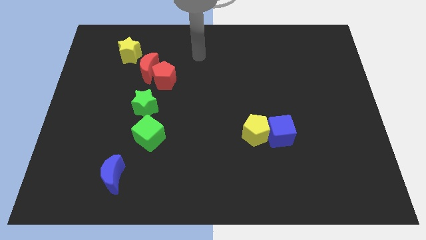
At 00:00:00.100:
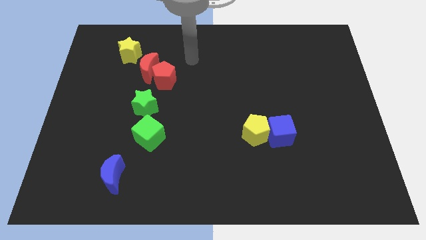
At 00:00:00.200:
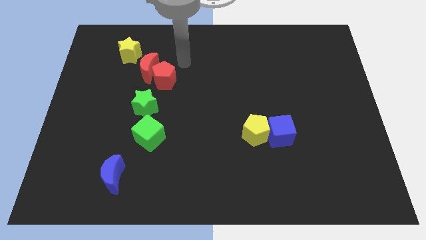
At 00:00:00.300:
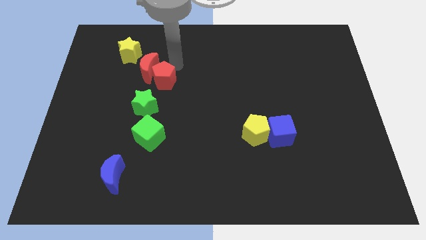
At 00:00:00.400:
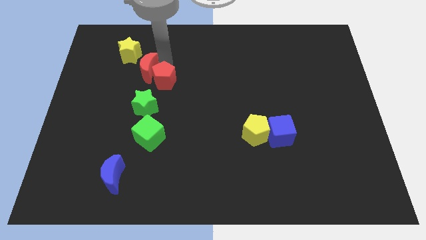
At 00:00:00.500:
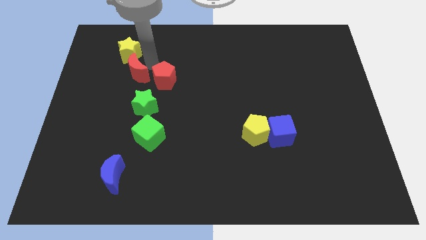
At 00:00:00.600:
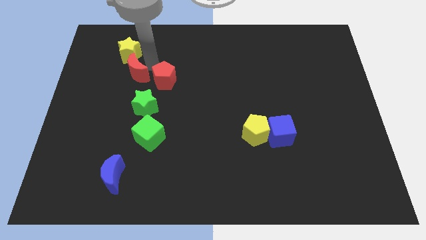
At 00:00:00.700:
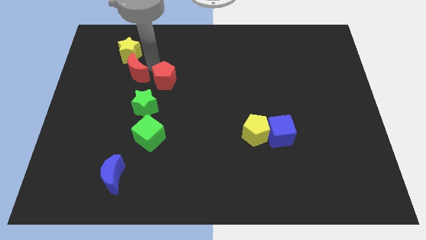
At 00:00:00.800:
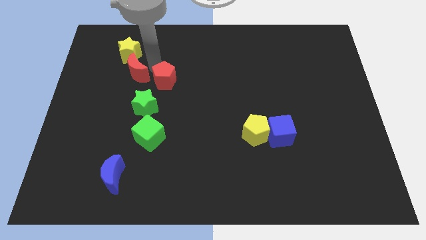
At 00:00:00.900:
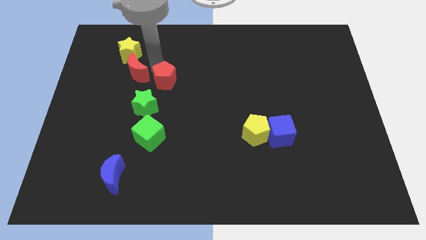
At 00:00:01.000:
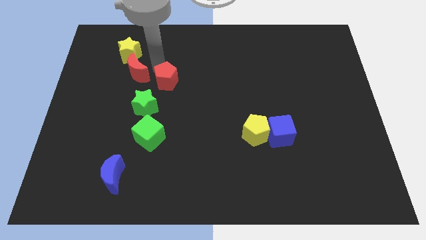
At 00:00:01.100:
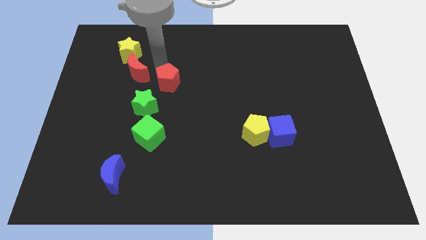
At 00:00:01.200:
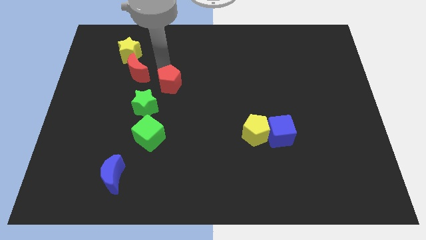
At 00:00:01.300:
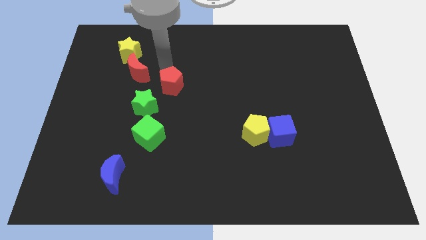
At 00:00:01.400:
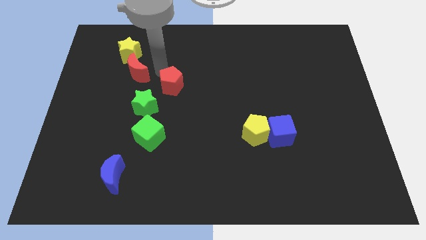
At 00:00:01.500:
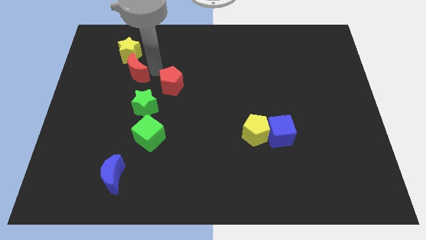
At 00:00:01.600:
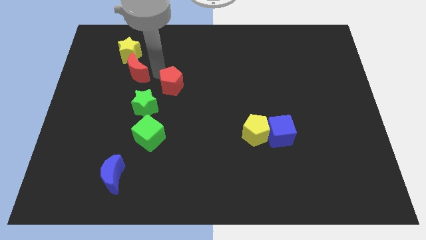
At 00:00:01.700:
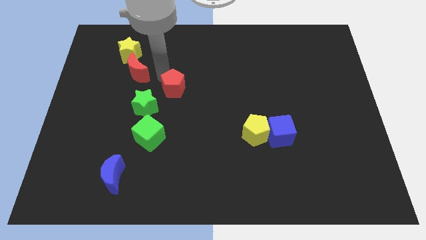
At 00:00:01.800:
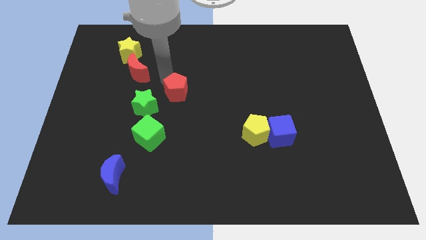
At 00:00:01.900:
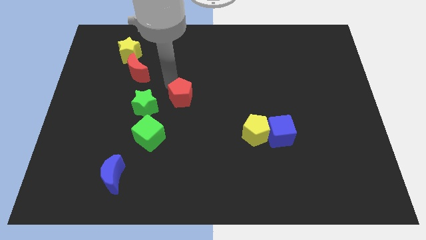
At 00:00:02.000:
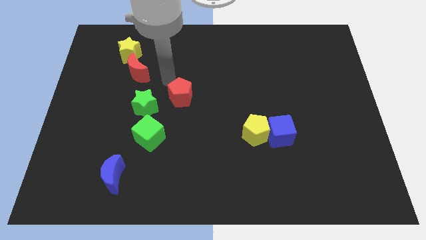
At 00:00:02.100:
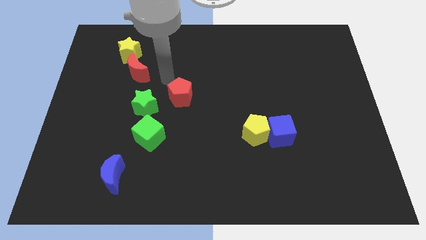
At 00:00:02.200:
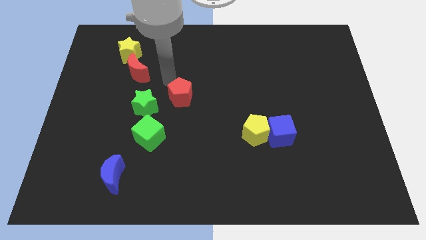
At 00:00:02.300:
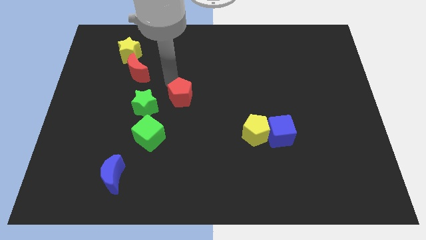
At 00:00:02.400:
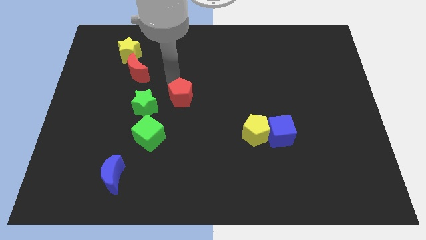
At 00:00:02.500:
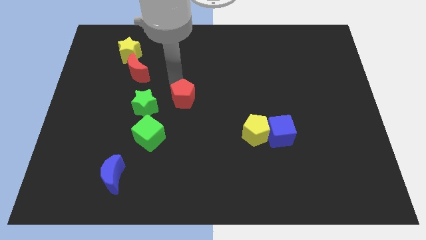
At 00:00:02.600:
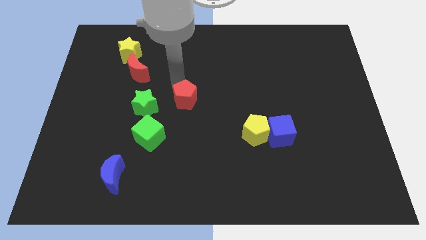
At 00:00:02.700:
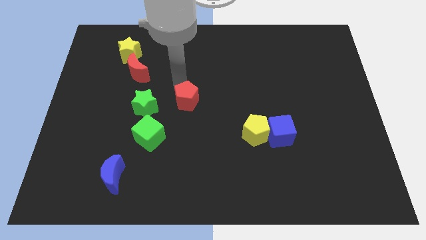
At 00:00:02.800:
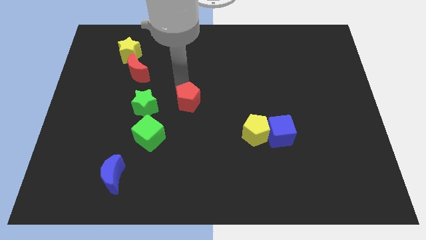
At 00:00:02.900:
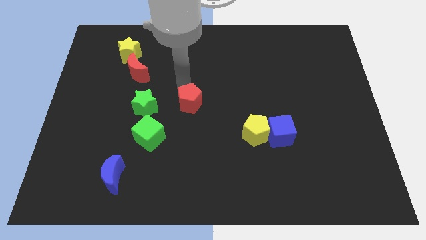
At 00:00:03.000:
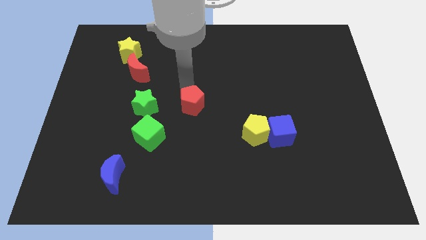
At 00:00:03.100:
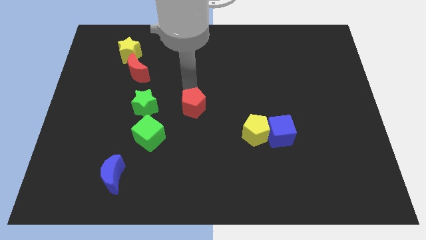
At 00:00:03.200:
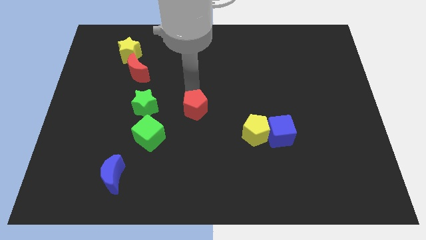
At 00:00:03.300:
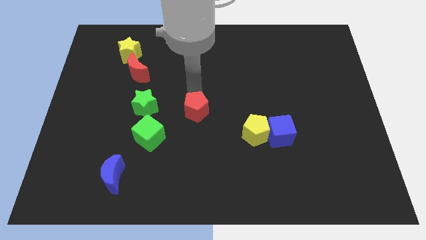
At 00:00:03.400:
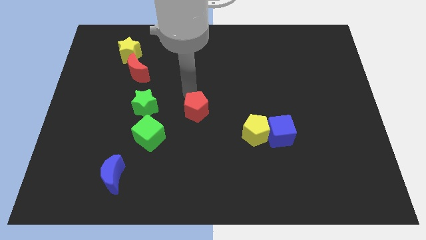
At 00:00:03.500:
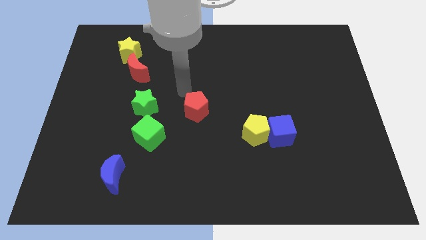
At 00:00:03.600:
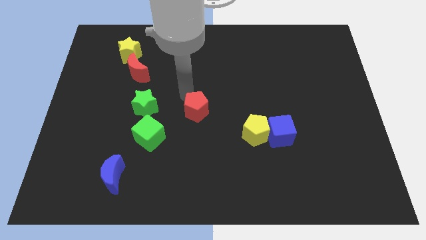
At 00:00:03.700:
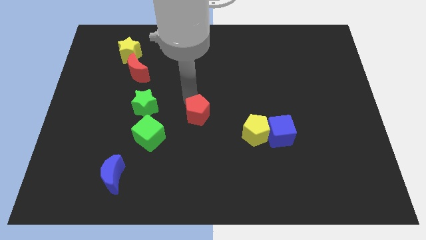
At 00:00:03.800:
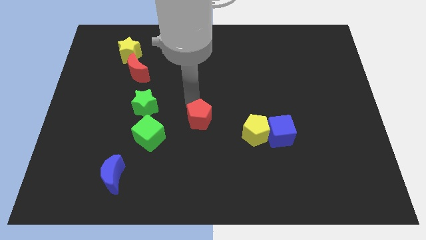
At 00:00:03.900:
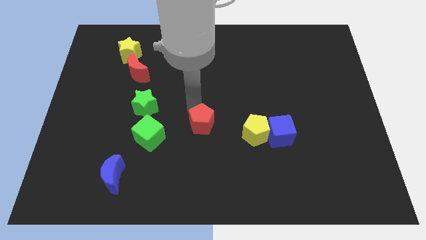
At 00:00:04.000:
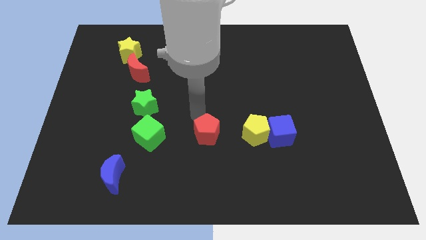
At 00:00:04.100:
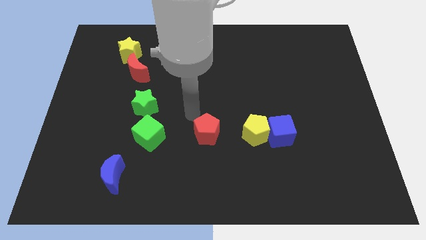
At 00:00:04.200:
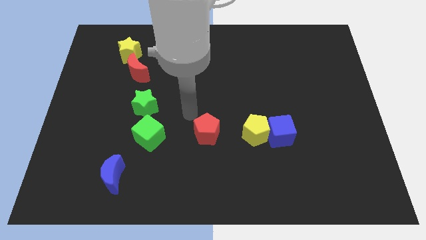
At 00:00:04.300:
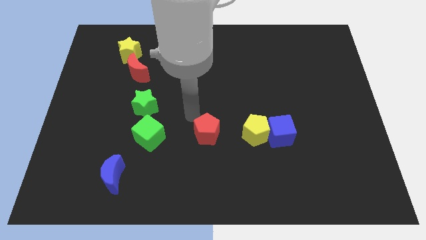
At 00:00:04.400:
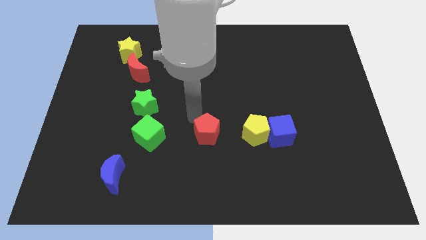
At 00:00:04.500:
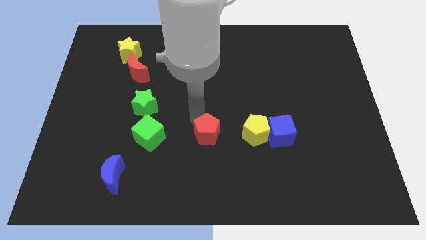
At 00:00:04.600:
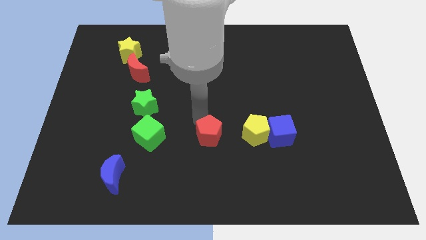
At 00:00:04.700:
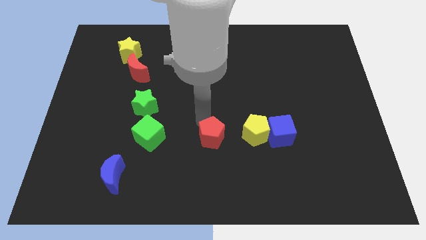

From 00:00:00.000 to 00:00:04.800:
slide the red pentagon downwards and to the right diagonally

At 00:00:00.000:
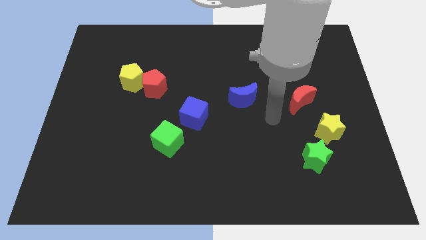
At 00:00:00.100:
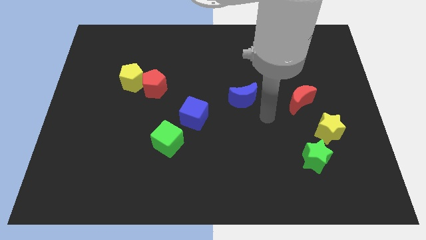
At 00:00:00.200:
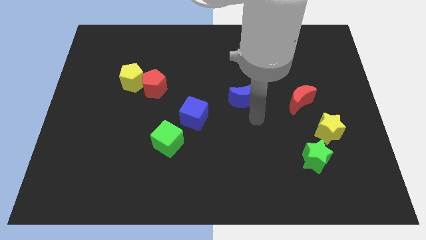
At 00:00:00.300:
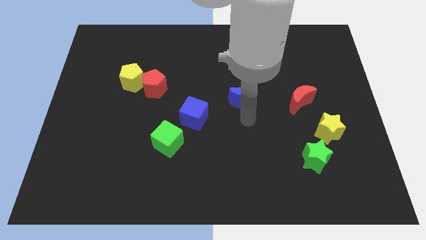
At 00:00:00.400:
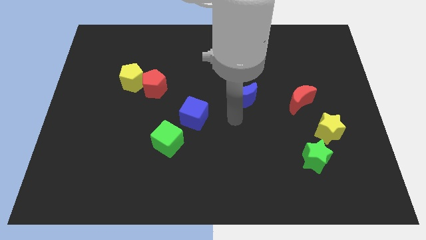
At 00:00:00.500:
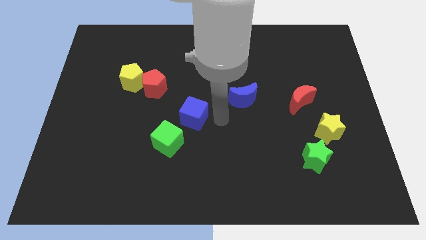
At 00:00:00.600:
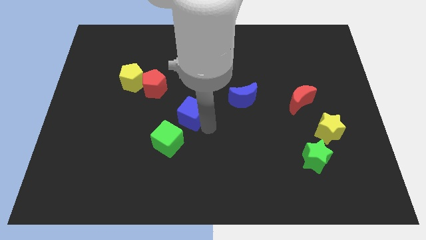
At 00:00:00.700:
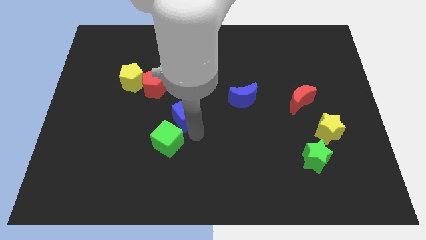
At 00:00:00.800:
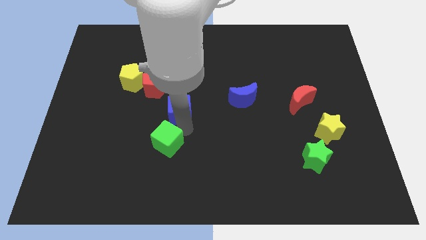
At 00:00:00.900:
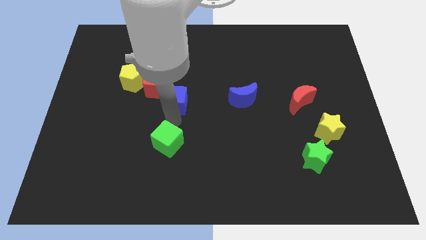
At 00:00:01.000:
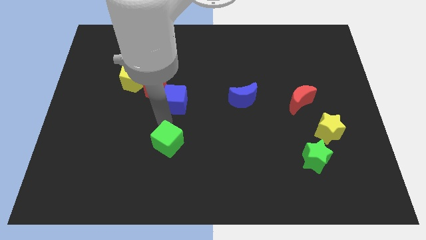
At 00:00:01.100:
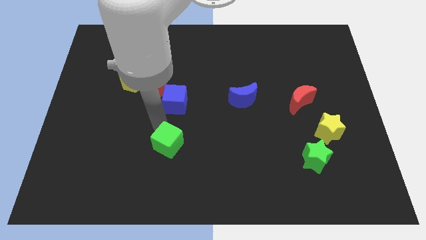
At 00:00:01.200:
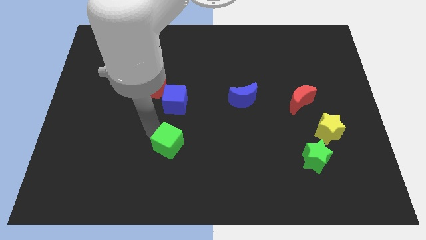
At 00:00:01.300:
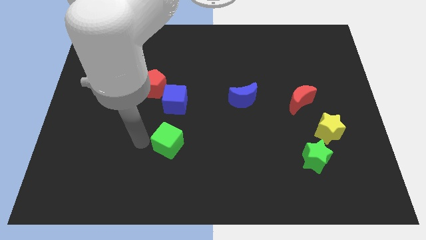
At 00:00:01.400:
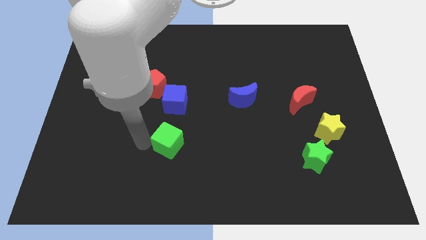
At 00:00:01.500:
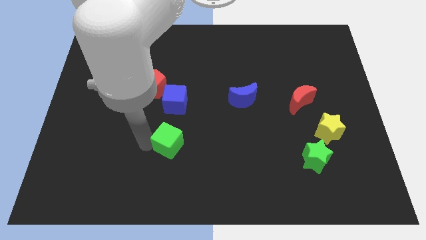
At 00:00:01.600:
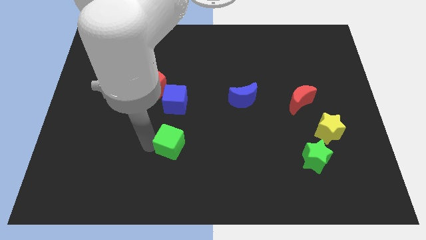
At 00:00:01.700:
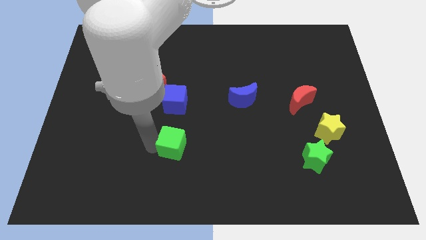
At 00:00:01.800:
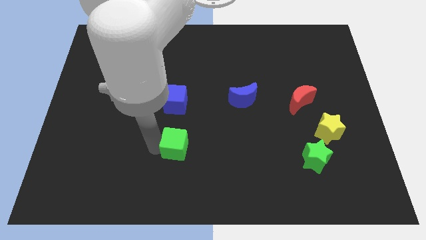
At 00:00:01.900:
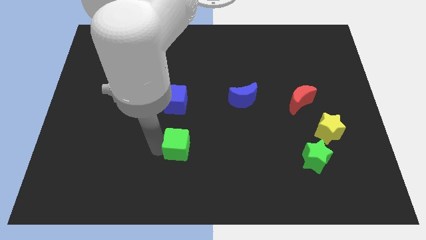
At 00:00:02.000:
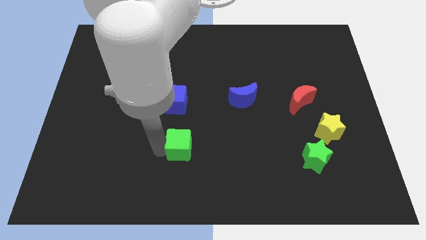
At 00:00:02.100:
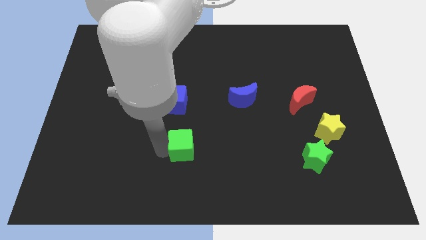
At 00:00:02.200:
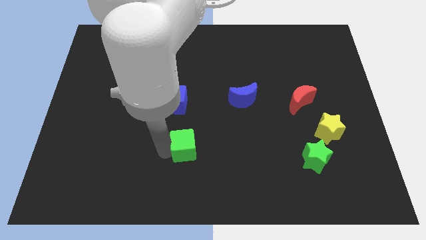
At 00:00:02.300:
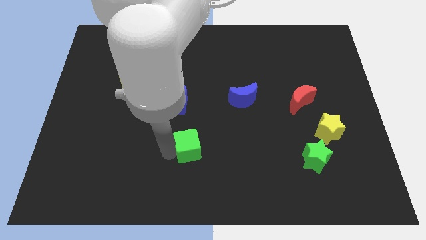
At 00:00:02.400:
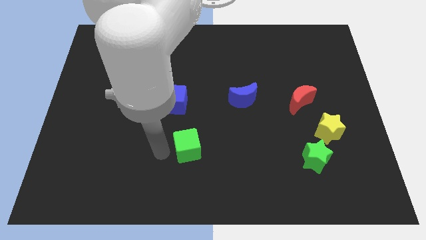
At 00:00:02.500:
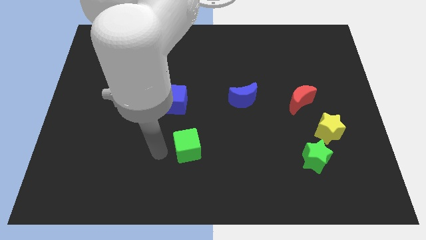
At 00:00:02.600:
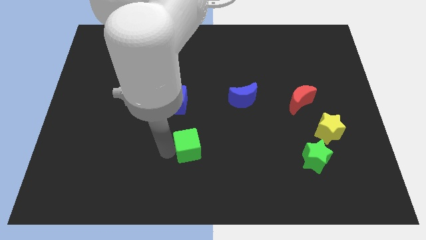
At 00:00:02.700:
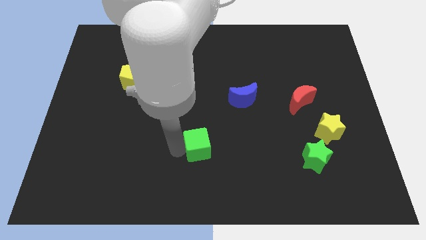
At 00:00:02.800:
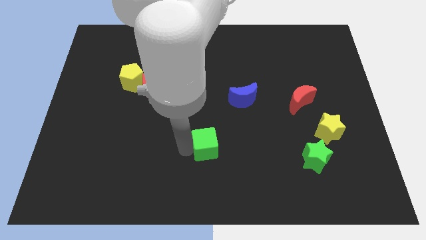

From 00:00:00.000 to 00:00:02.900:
move the green cube right slightly

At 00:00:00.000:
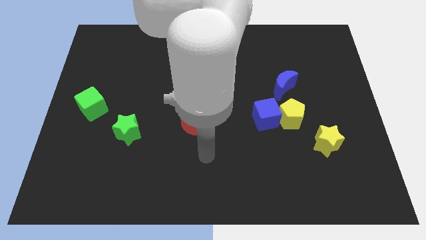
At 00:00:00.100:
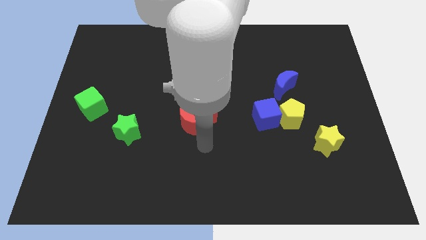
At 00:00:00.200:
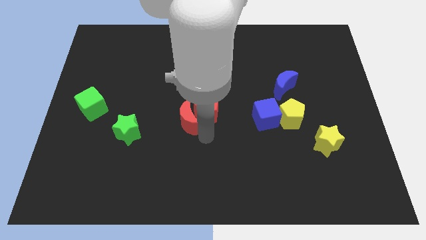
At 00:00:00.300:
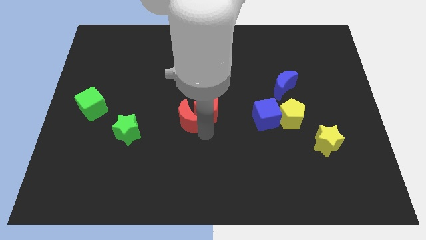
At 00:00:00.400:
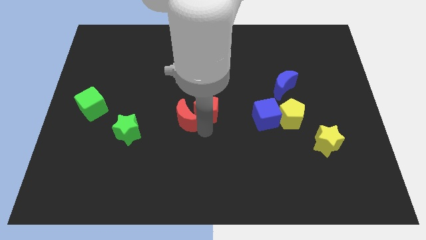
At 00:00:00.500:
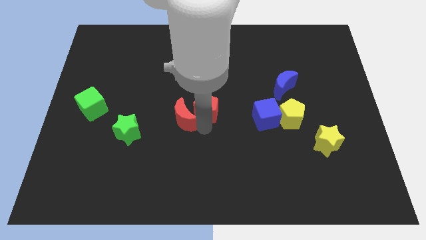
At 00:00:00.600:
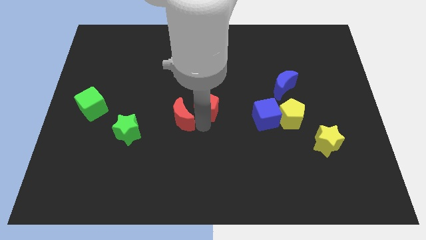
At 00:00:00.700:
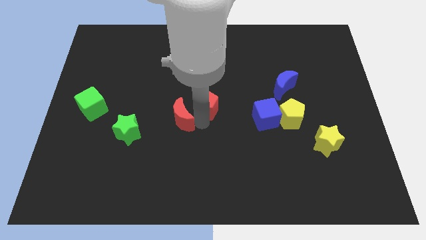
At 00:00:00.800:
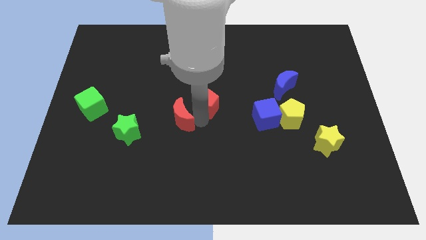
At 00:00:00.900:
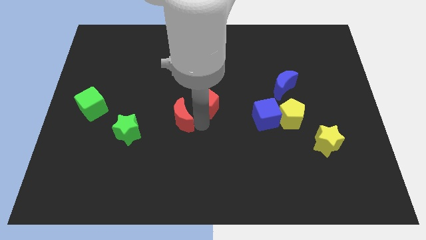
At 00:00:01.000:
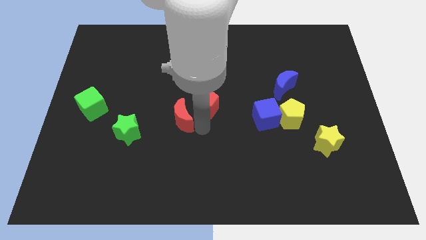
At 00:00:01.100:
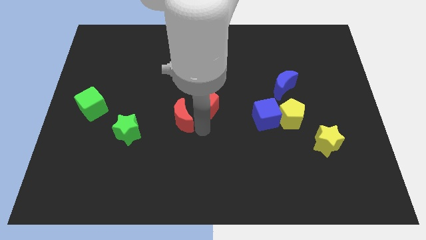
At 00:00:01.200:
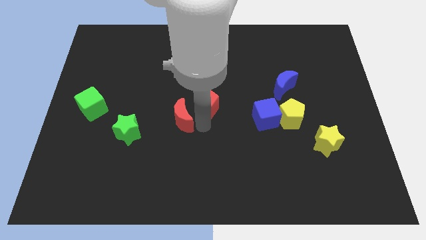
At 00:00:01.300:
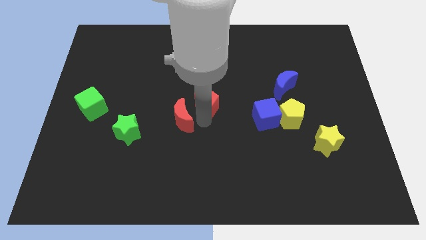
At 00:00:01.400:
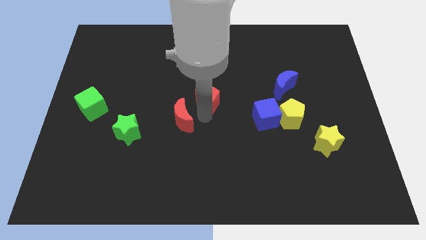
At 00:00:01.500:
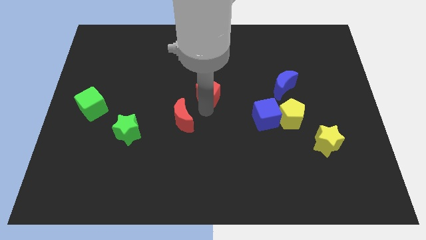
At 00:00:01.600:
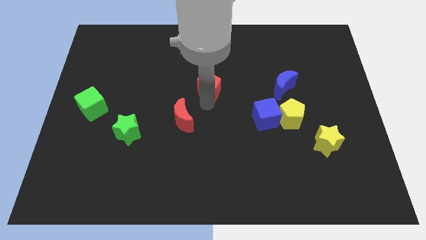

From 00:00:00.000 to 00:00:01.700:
move the red pentagon up a little bit
